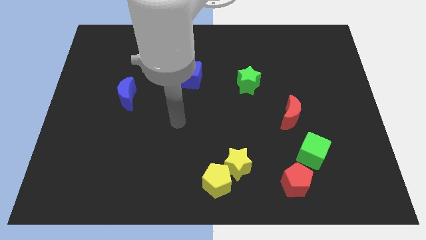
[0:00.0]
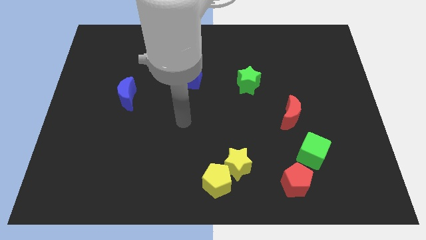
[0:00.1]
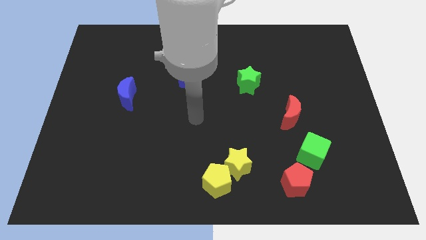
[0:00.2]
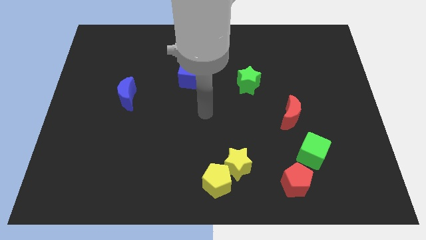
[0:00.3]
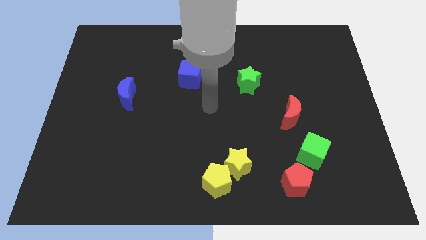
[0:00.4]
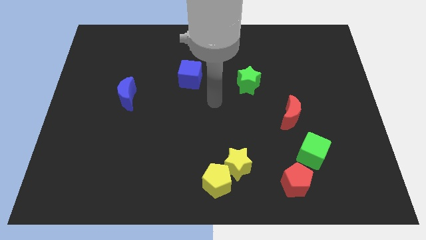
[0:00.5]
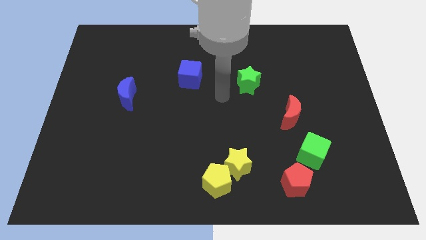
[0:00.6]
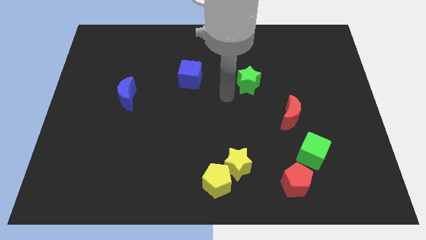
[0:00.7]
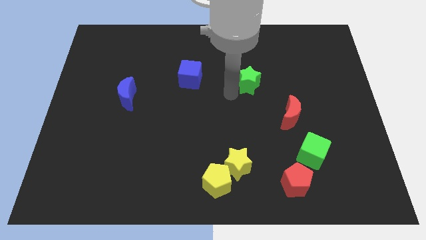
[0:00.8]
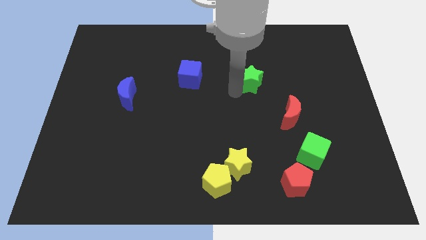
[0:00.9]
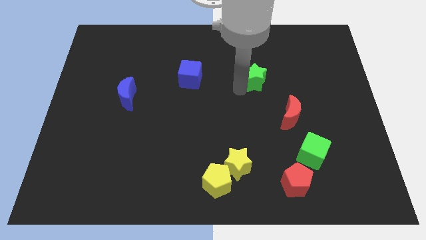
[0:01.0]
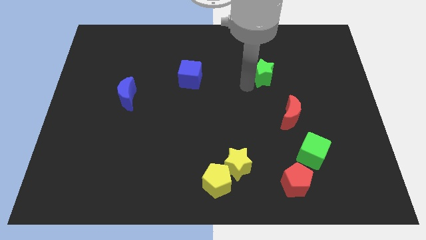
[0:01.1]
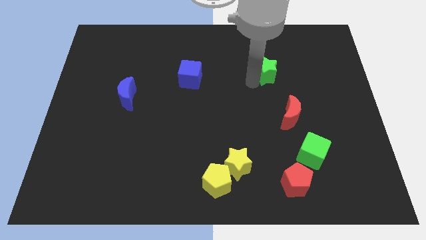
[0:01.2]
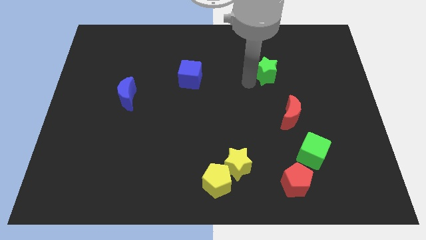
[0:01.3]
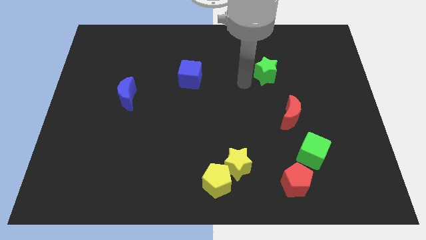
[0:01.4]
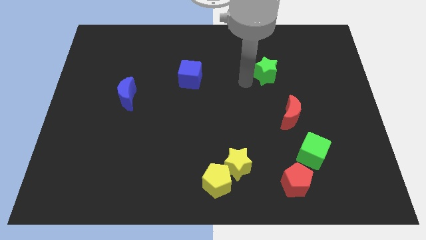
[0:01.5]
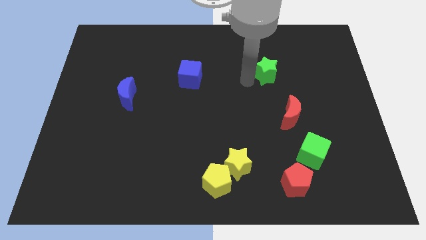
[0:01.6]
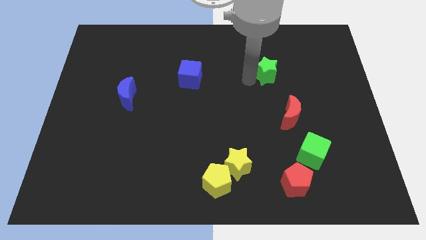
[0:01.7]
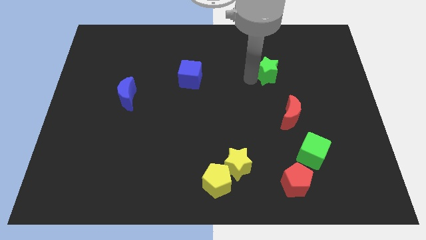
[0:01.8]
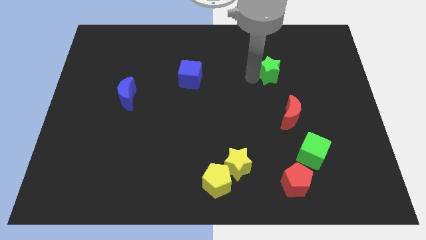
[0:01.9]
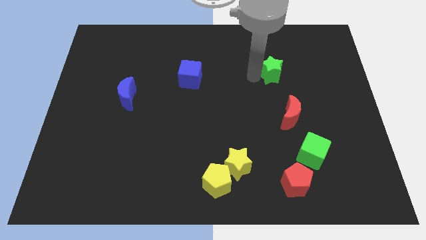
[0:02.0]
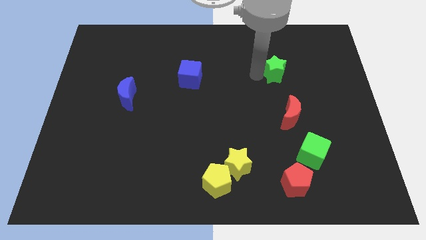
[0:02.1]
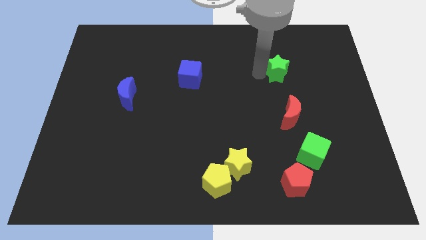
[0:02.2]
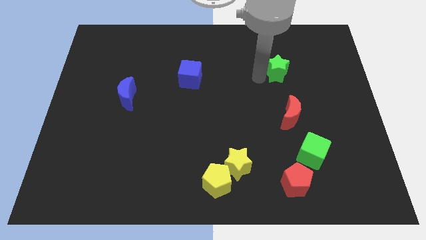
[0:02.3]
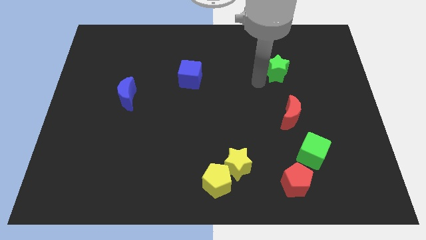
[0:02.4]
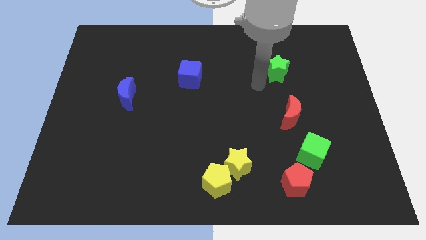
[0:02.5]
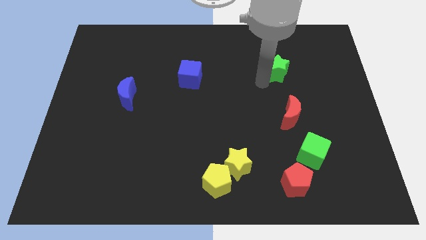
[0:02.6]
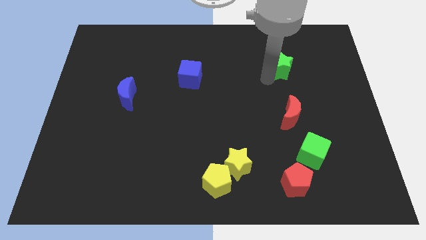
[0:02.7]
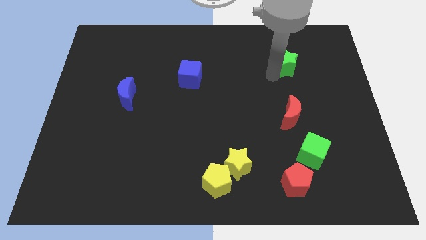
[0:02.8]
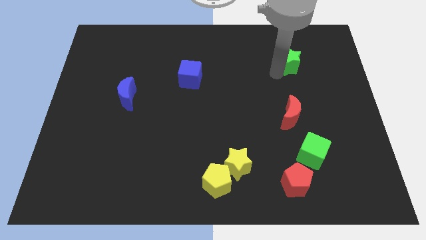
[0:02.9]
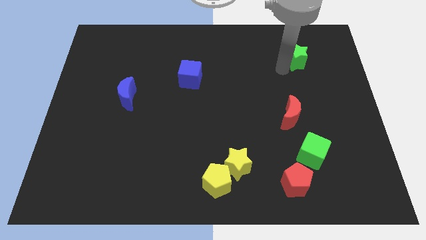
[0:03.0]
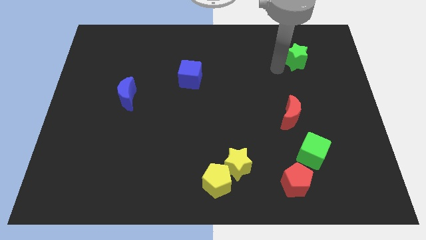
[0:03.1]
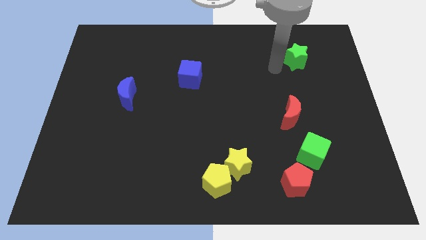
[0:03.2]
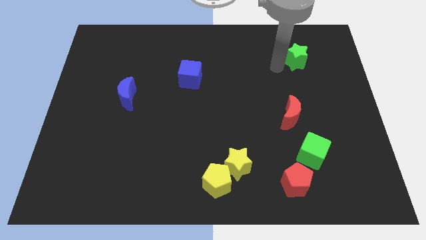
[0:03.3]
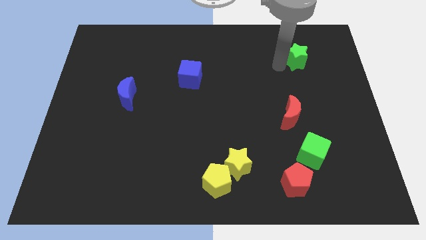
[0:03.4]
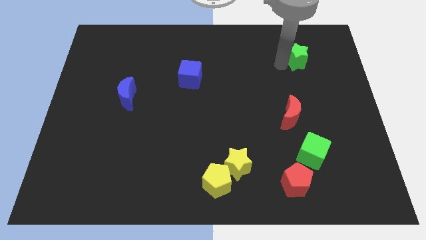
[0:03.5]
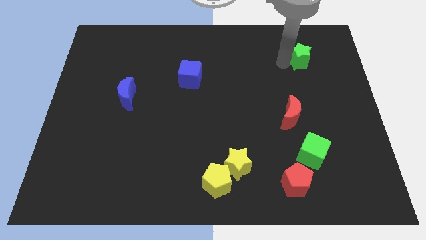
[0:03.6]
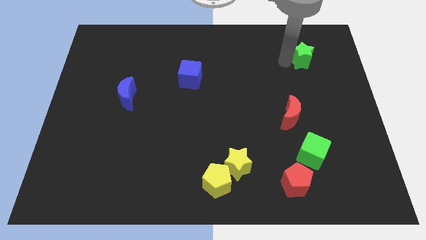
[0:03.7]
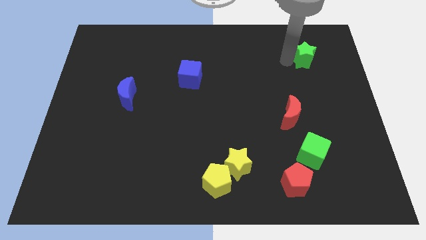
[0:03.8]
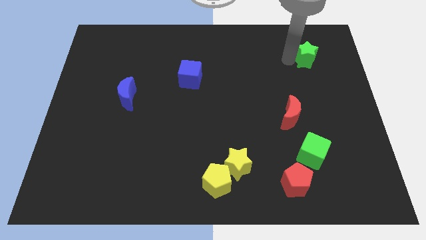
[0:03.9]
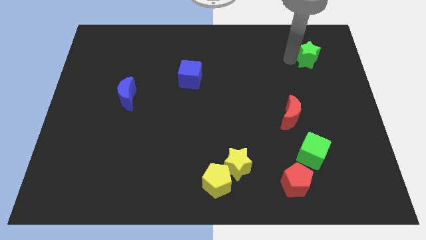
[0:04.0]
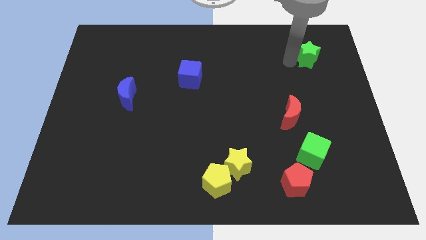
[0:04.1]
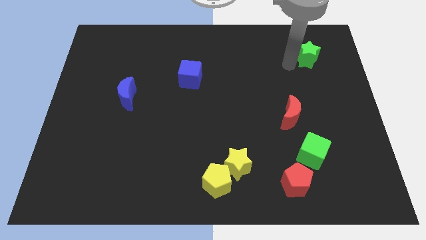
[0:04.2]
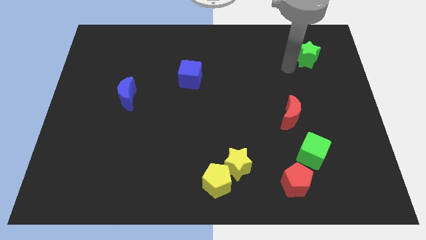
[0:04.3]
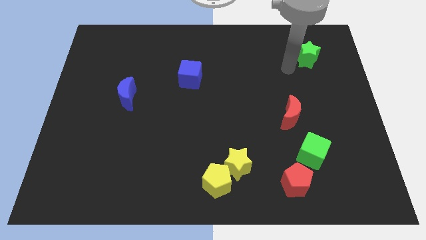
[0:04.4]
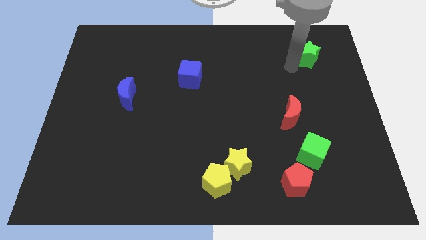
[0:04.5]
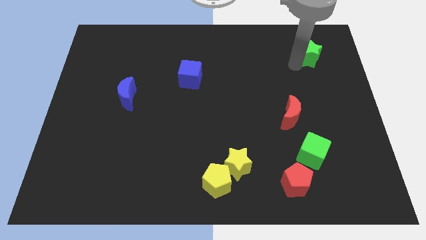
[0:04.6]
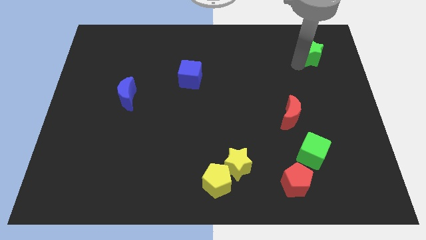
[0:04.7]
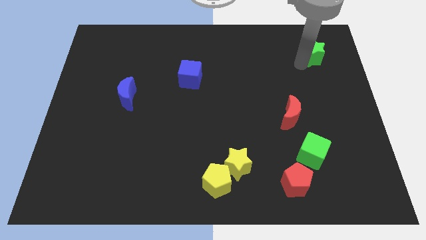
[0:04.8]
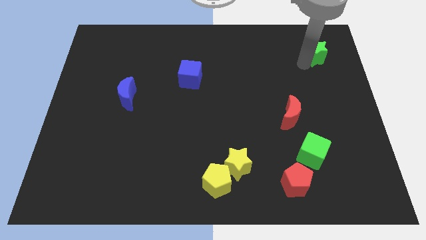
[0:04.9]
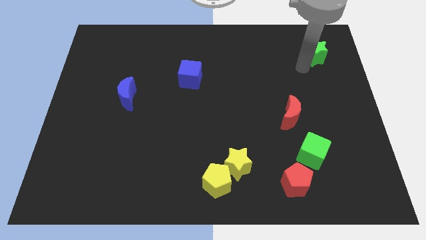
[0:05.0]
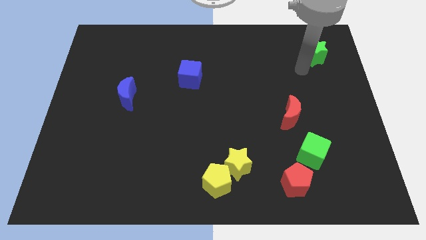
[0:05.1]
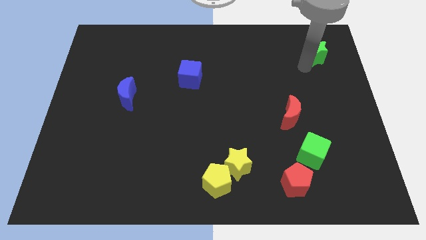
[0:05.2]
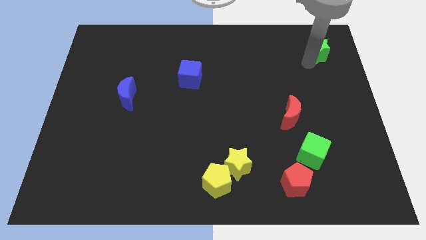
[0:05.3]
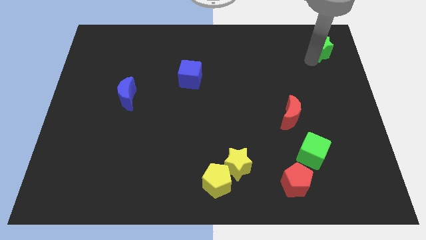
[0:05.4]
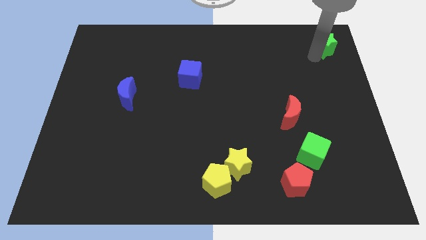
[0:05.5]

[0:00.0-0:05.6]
slide the green star to the top right
